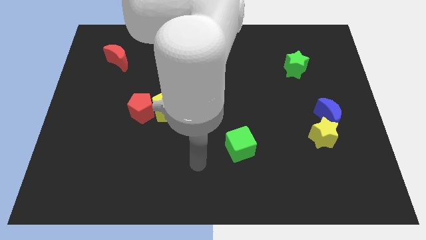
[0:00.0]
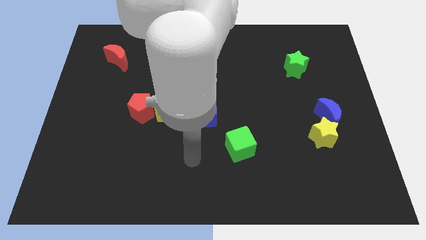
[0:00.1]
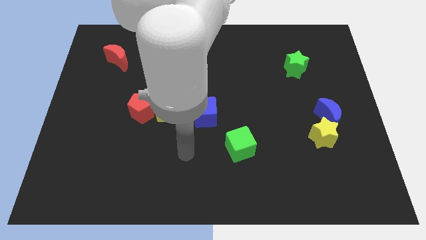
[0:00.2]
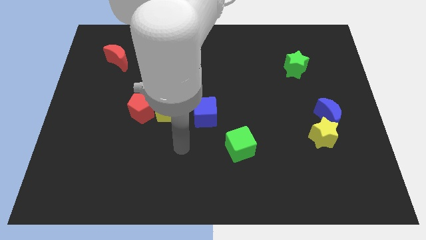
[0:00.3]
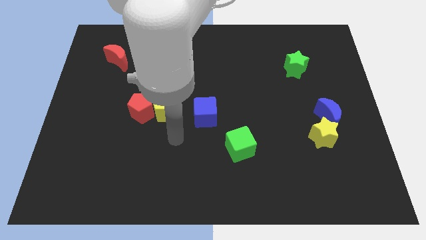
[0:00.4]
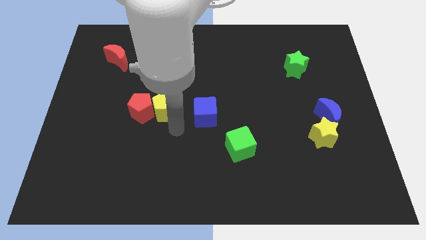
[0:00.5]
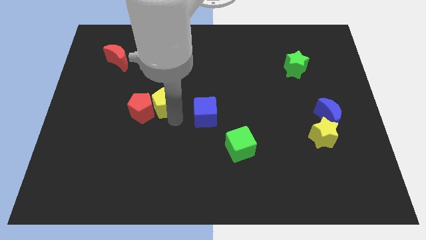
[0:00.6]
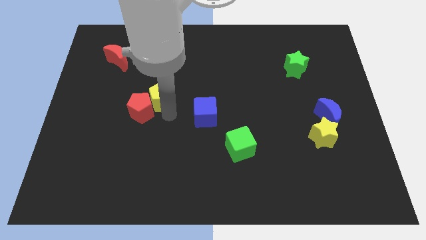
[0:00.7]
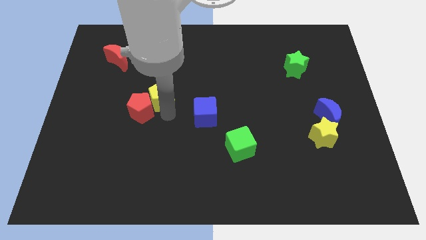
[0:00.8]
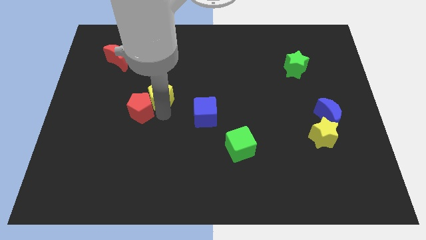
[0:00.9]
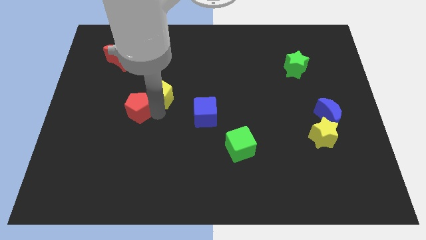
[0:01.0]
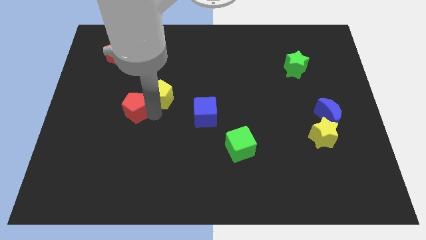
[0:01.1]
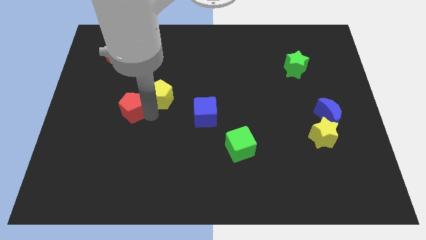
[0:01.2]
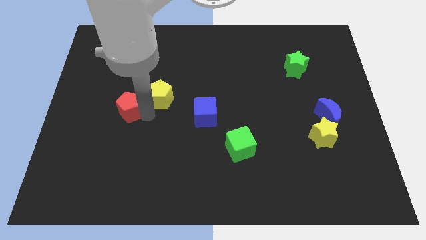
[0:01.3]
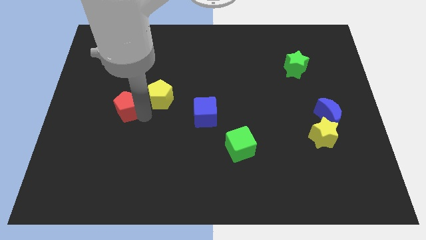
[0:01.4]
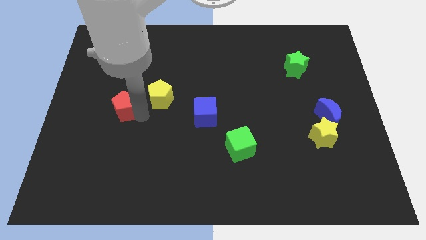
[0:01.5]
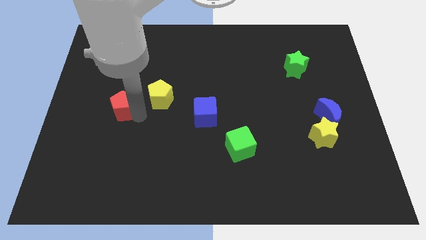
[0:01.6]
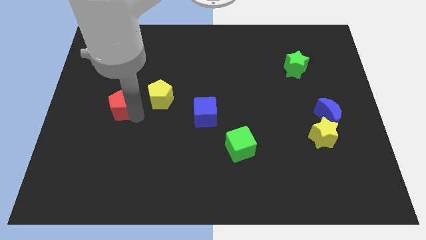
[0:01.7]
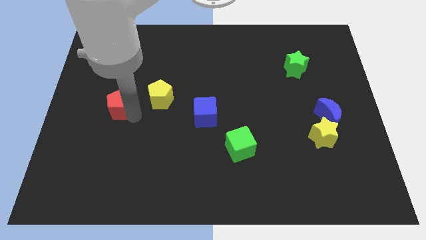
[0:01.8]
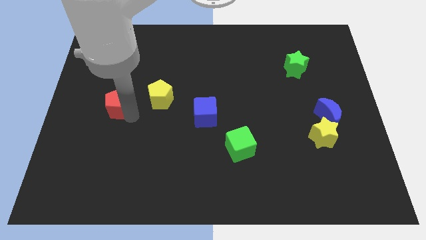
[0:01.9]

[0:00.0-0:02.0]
pull the red pentagon apart from the yellow pentagon

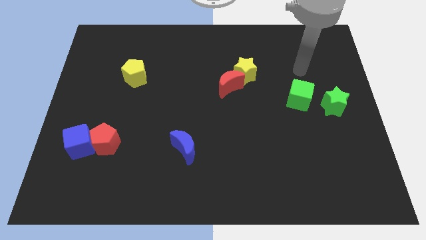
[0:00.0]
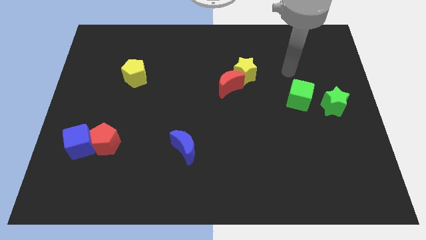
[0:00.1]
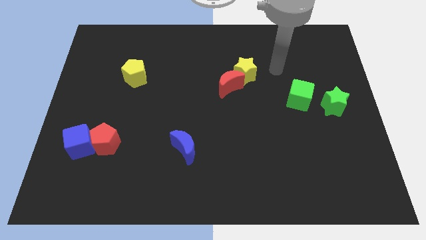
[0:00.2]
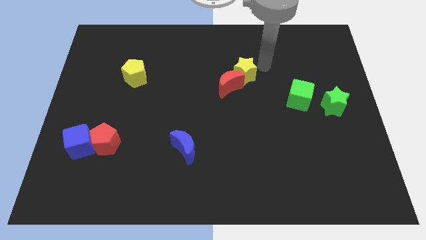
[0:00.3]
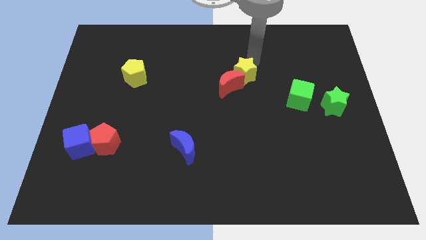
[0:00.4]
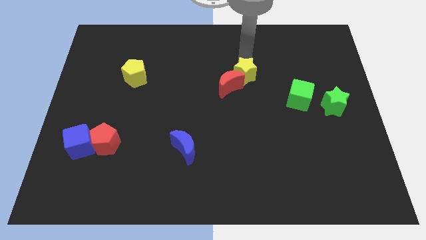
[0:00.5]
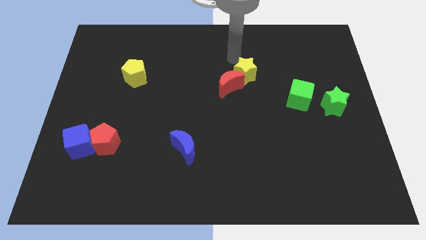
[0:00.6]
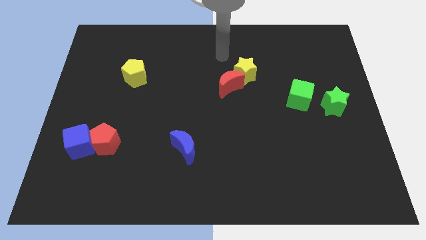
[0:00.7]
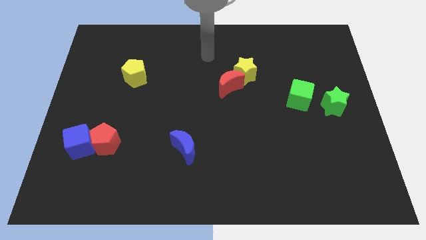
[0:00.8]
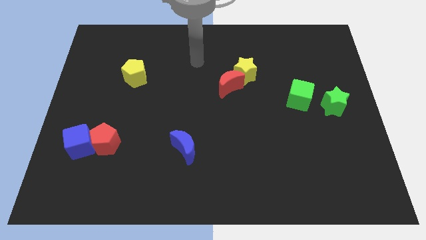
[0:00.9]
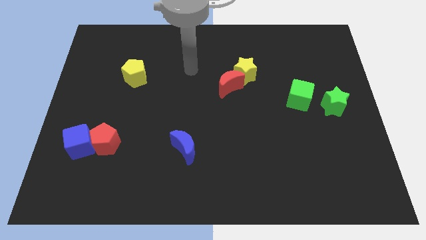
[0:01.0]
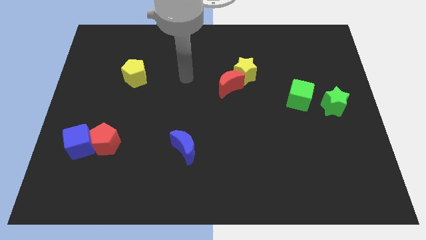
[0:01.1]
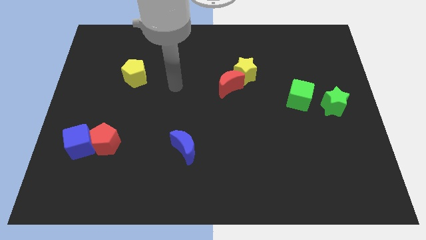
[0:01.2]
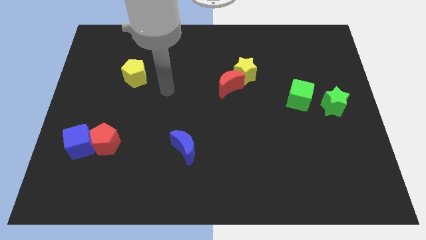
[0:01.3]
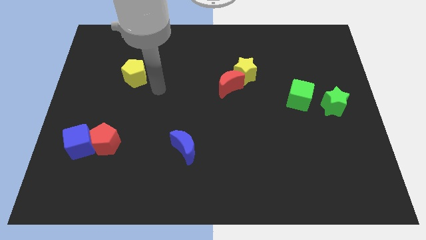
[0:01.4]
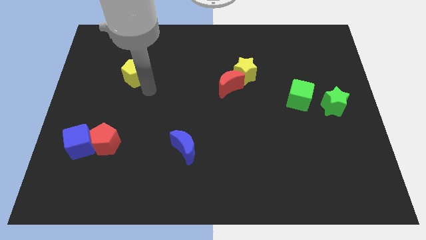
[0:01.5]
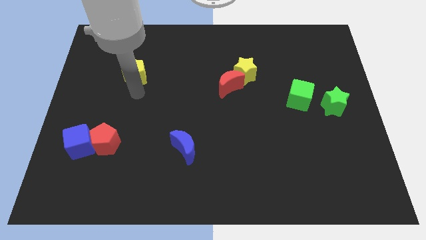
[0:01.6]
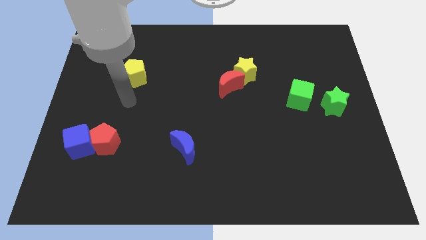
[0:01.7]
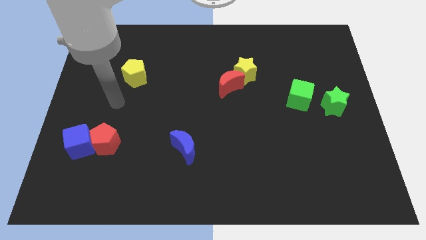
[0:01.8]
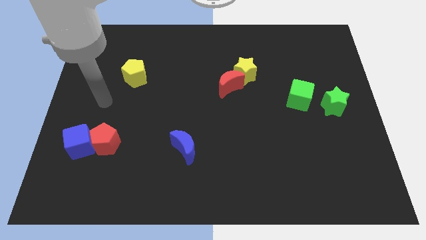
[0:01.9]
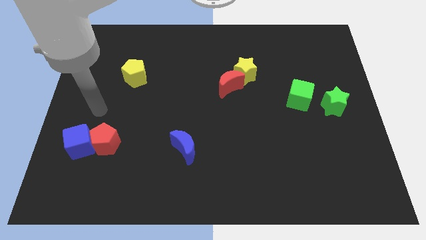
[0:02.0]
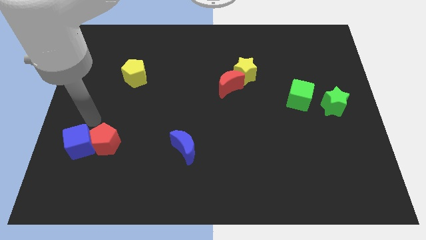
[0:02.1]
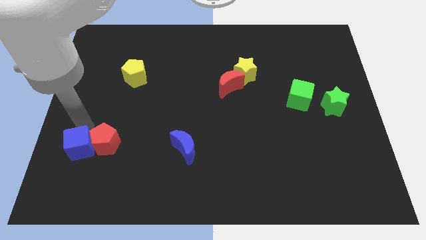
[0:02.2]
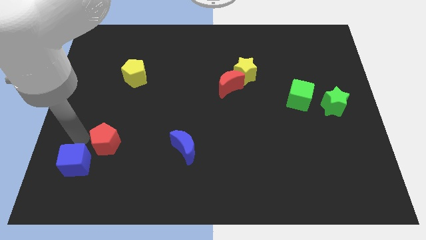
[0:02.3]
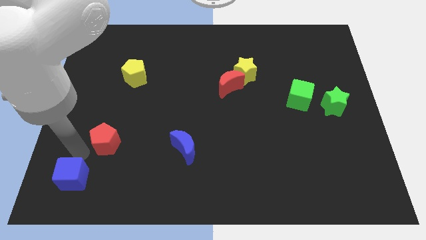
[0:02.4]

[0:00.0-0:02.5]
pull the red pentagon apart from the blue cube

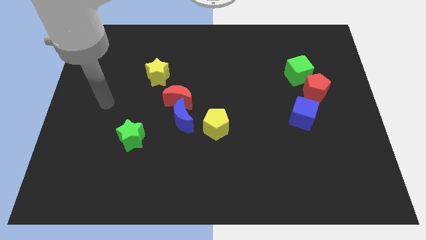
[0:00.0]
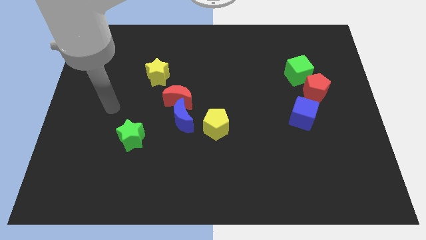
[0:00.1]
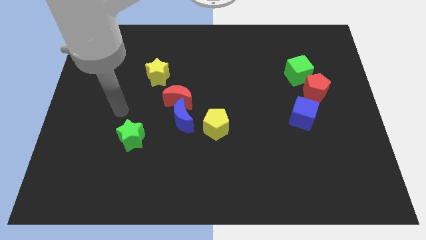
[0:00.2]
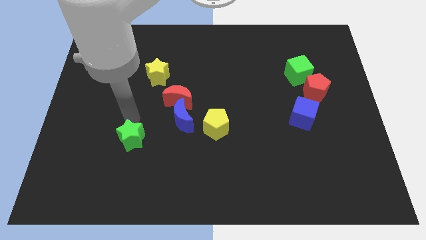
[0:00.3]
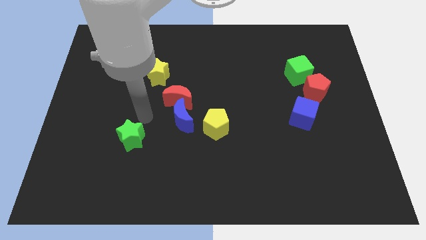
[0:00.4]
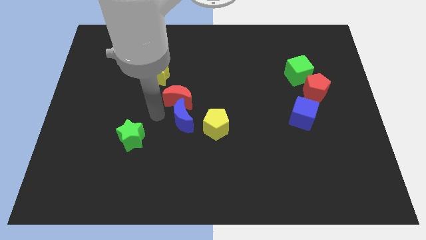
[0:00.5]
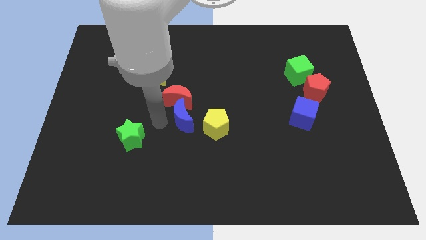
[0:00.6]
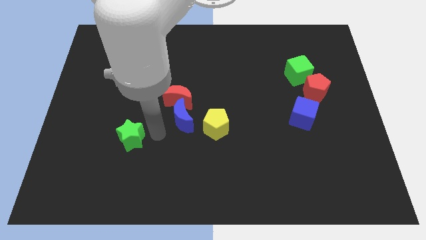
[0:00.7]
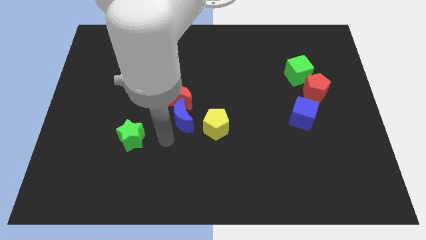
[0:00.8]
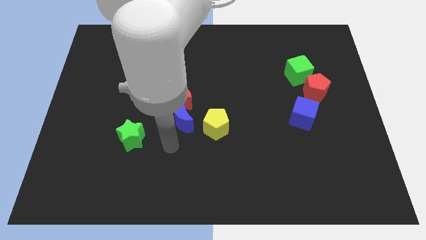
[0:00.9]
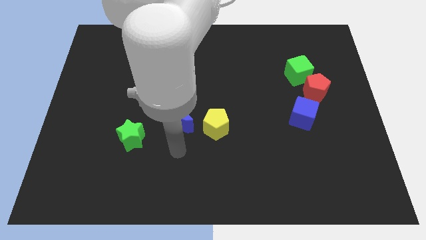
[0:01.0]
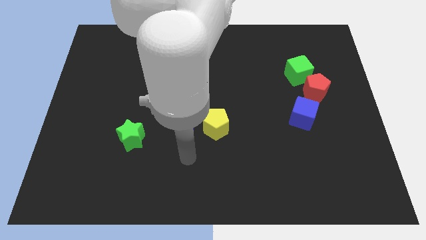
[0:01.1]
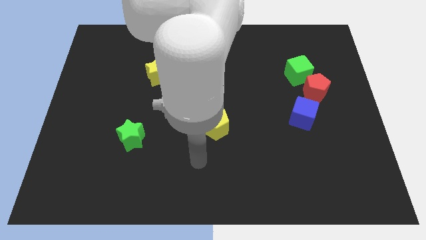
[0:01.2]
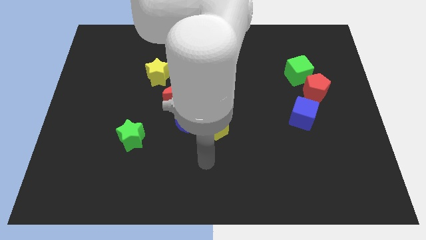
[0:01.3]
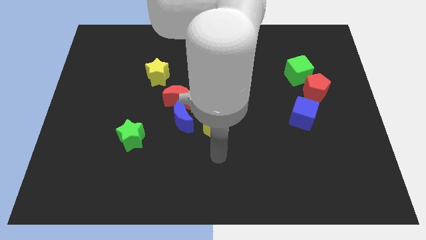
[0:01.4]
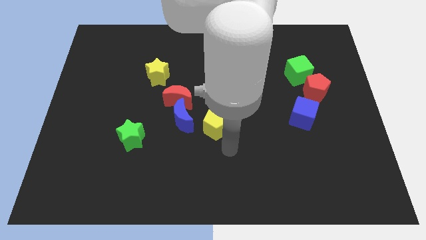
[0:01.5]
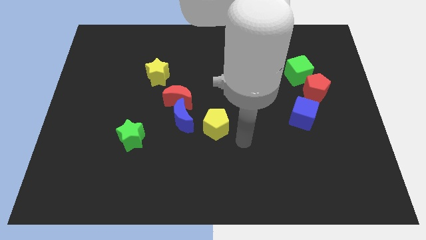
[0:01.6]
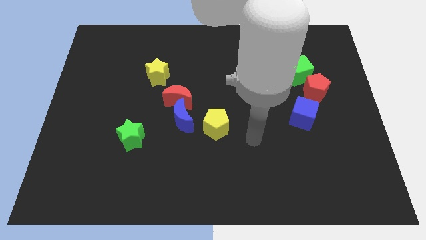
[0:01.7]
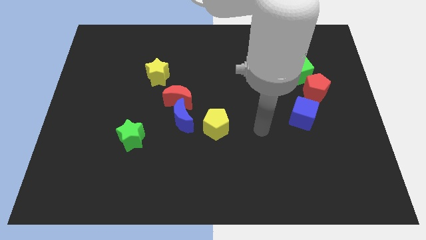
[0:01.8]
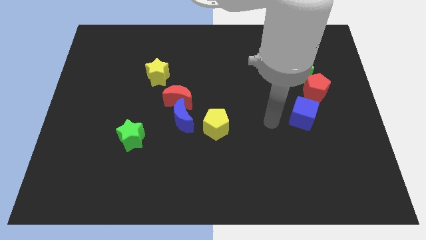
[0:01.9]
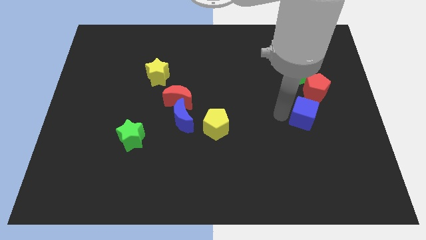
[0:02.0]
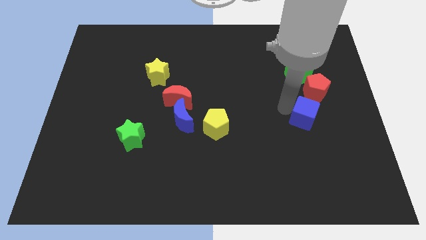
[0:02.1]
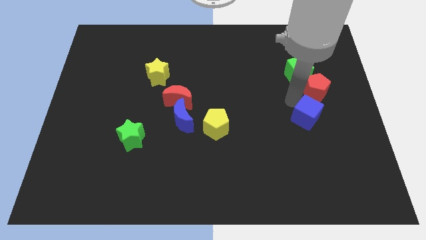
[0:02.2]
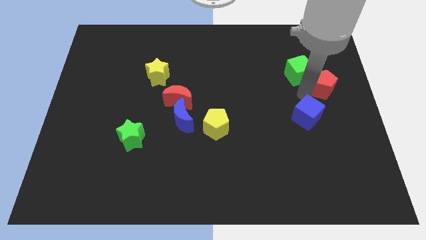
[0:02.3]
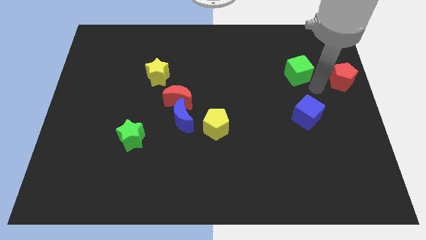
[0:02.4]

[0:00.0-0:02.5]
pull the green cube apart from the red pentagon

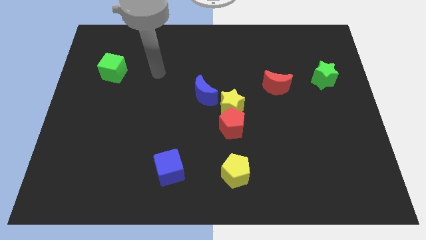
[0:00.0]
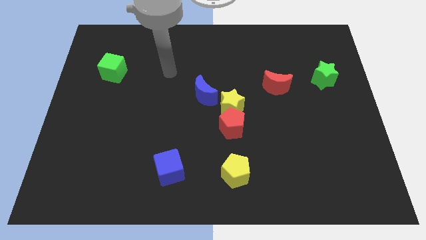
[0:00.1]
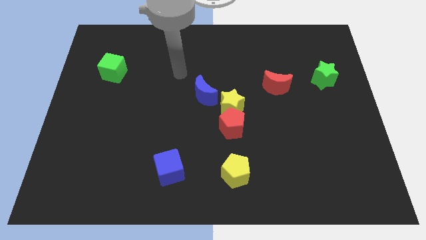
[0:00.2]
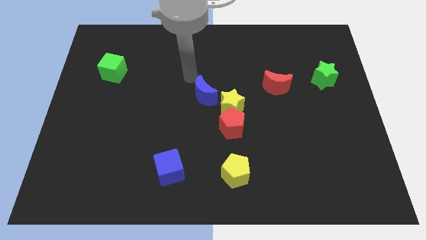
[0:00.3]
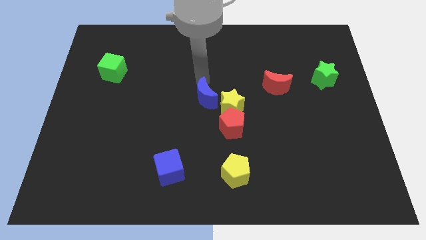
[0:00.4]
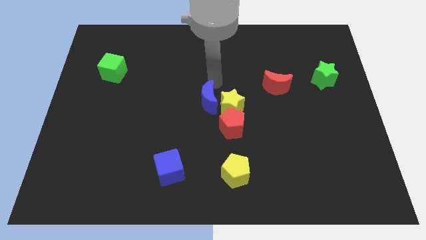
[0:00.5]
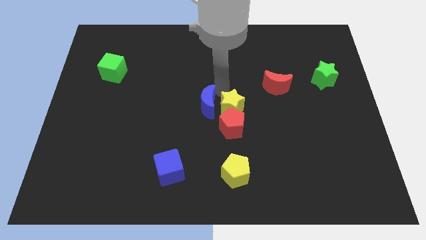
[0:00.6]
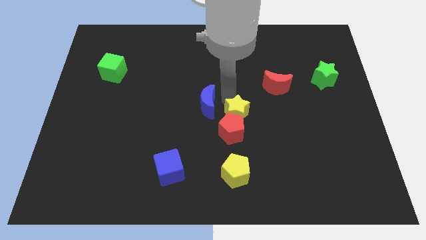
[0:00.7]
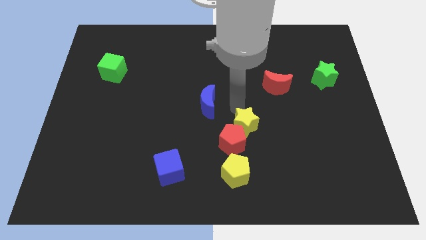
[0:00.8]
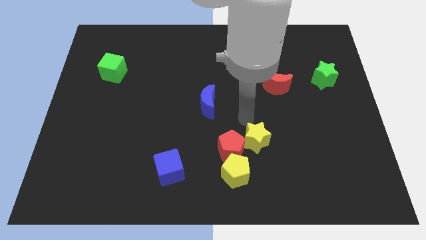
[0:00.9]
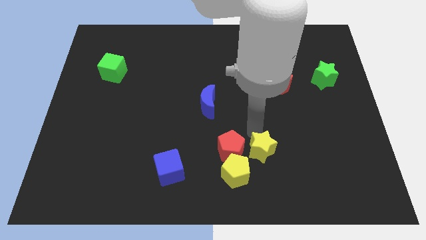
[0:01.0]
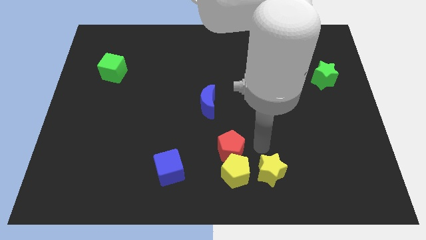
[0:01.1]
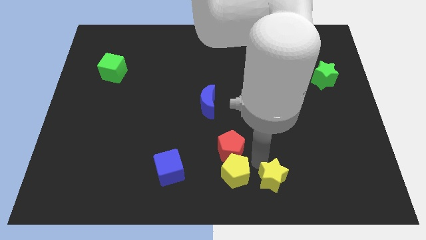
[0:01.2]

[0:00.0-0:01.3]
separate the red pentagon from the yellow star

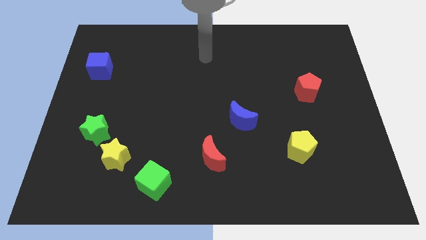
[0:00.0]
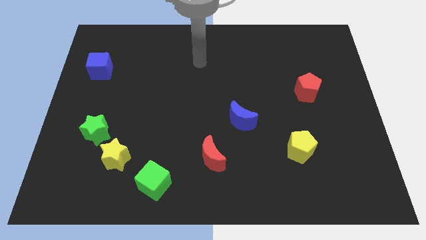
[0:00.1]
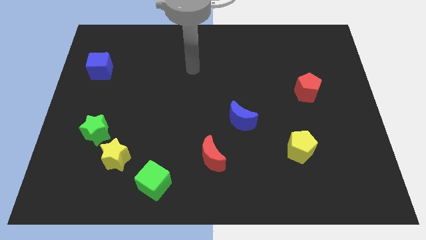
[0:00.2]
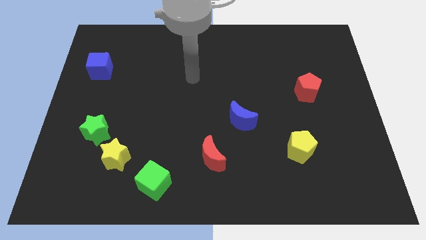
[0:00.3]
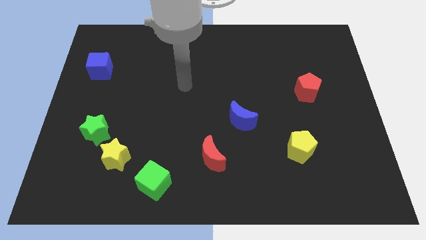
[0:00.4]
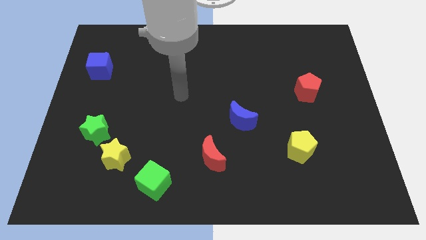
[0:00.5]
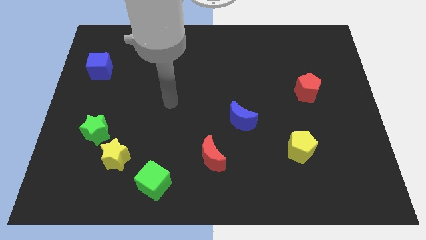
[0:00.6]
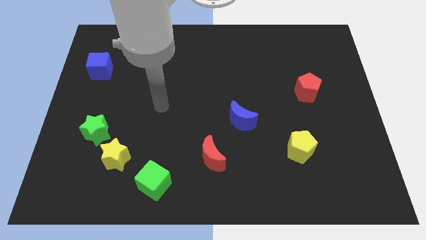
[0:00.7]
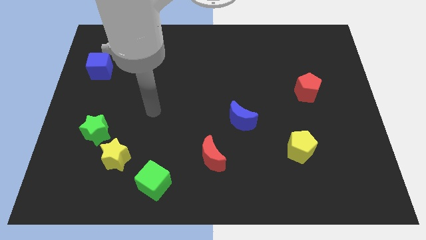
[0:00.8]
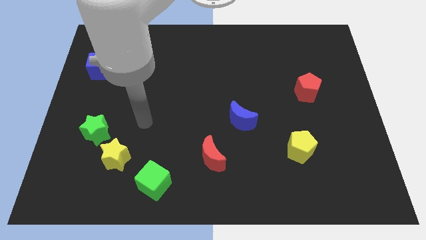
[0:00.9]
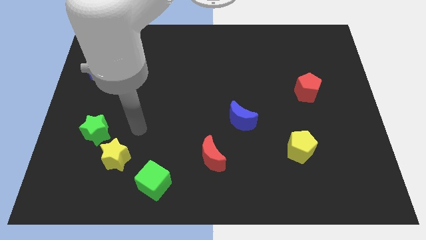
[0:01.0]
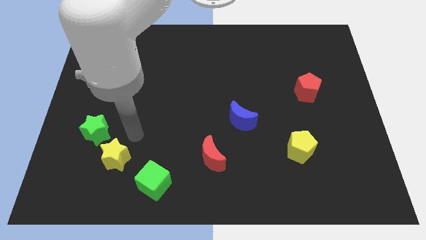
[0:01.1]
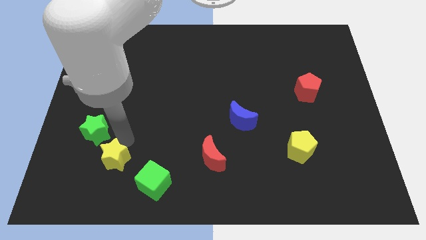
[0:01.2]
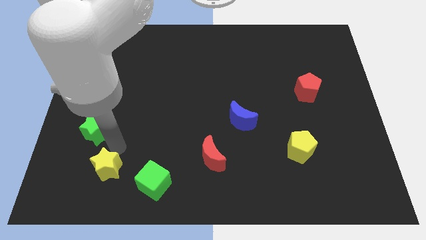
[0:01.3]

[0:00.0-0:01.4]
move the green star away from the yellow star
